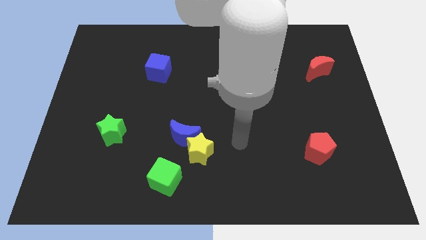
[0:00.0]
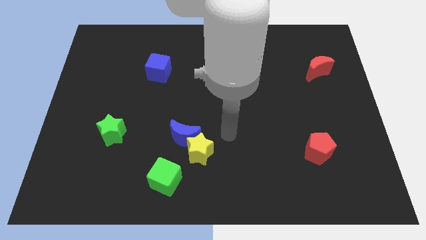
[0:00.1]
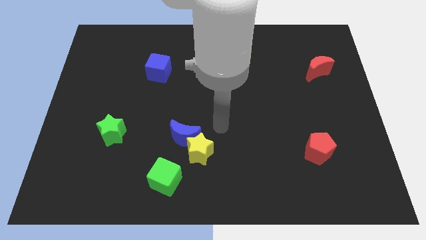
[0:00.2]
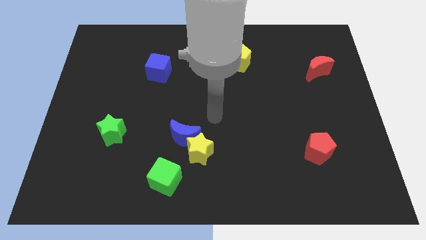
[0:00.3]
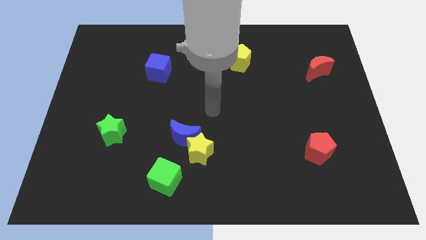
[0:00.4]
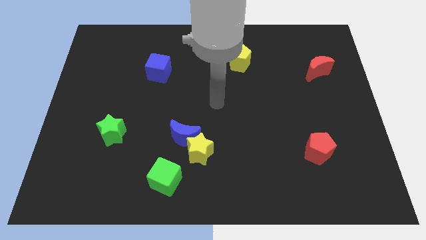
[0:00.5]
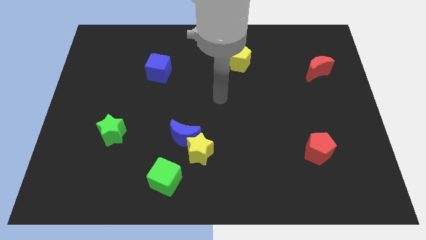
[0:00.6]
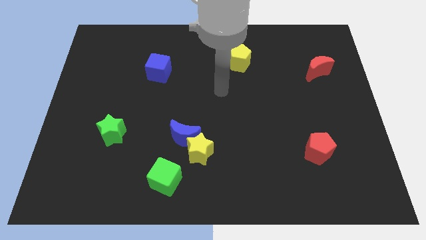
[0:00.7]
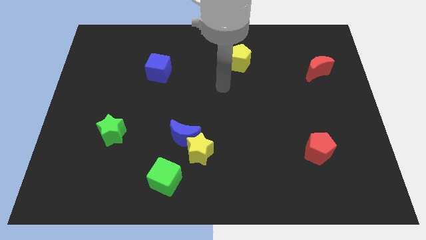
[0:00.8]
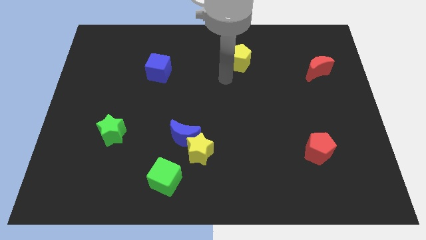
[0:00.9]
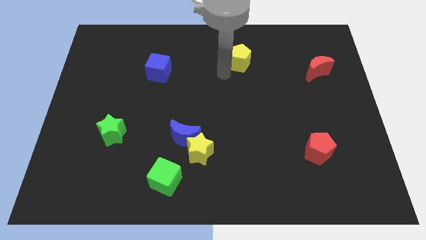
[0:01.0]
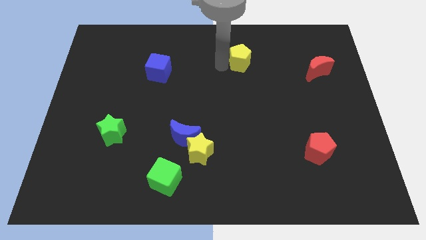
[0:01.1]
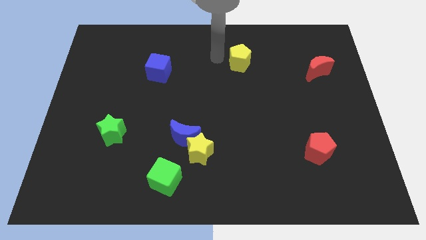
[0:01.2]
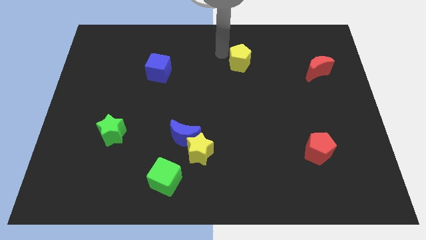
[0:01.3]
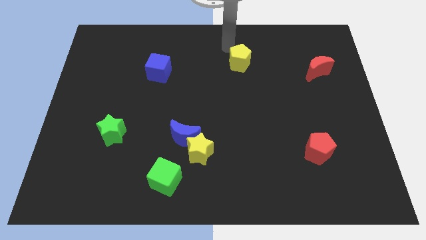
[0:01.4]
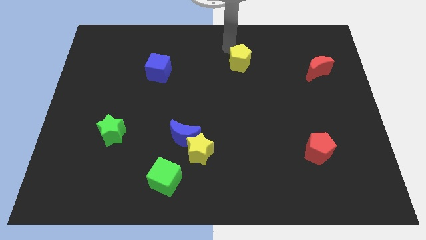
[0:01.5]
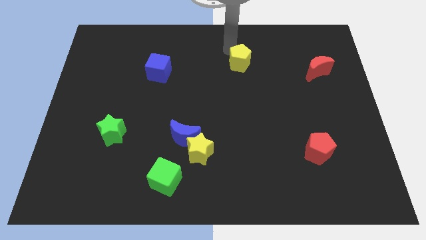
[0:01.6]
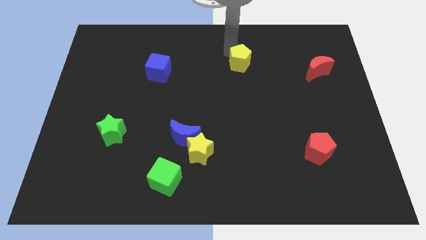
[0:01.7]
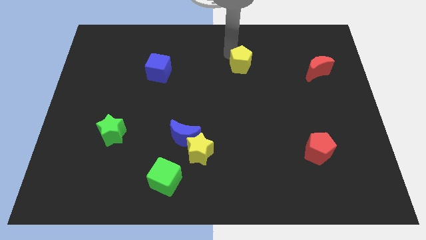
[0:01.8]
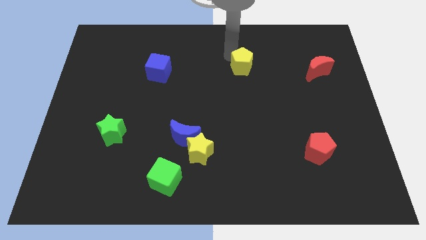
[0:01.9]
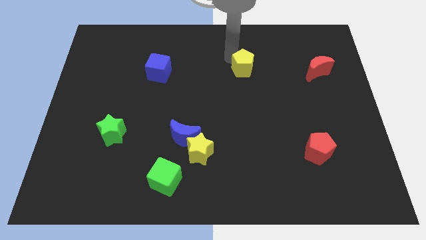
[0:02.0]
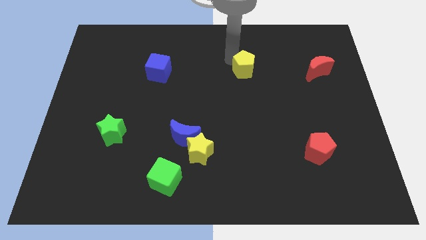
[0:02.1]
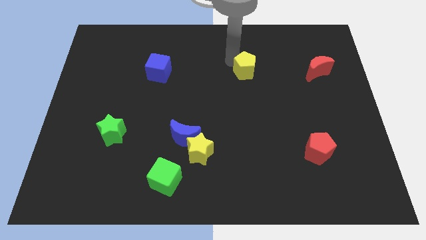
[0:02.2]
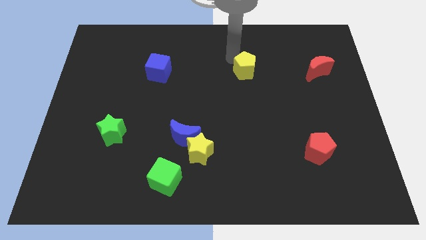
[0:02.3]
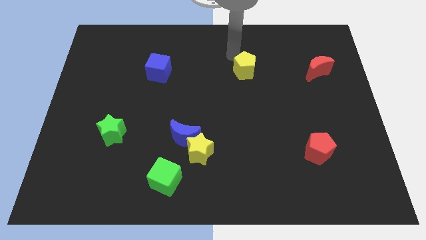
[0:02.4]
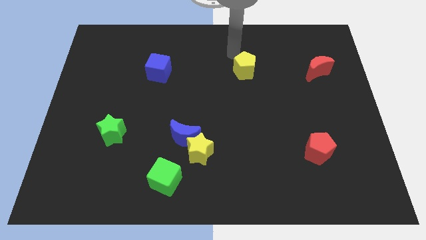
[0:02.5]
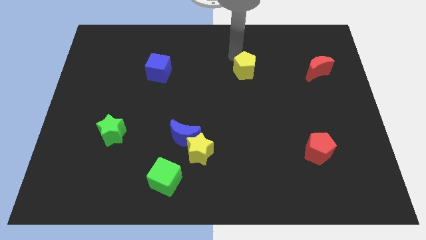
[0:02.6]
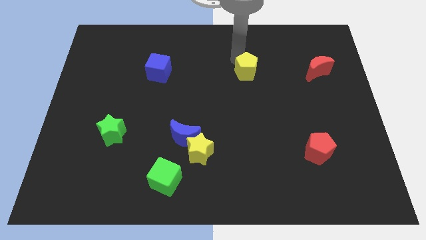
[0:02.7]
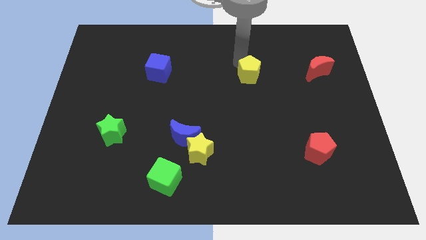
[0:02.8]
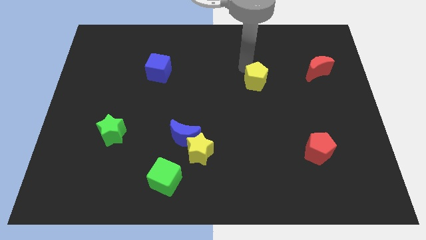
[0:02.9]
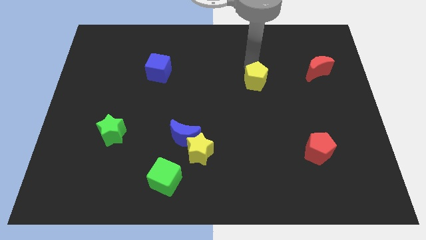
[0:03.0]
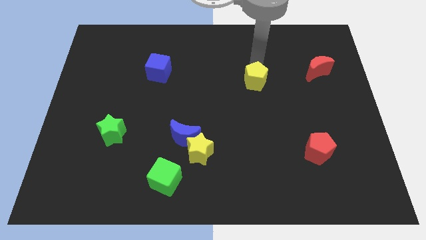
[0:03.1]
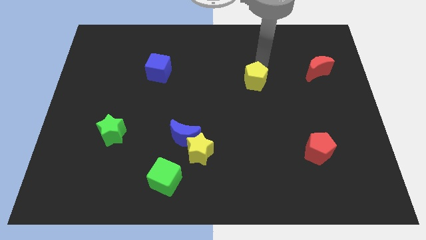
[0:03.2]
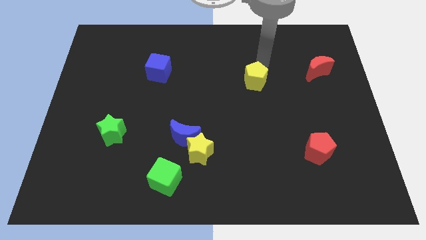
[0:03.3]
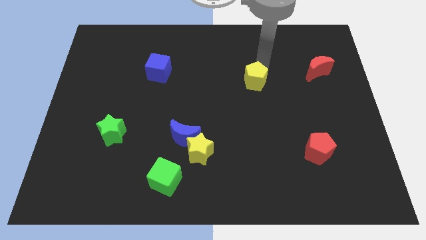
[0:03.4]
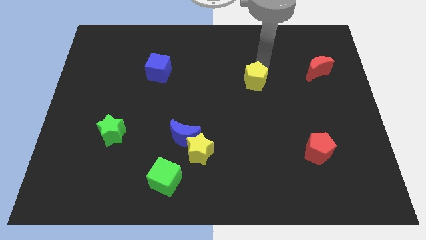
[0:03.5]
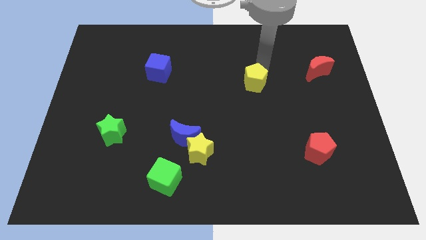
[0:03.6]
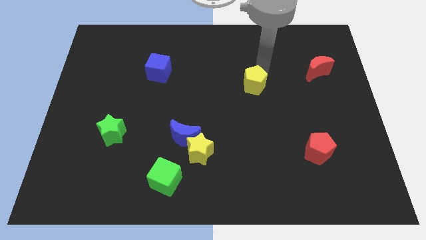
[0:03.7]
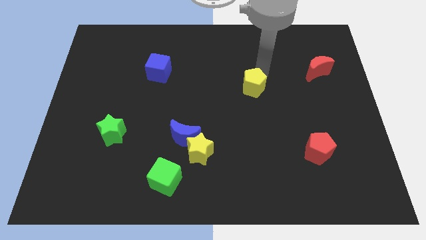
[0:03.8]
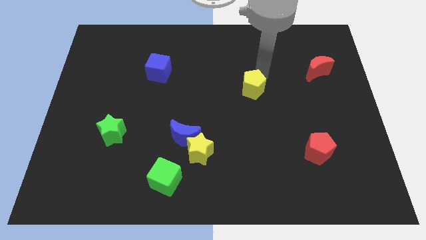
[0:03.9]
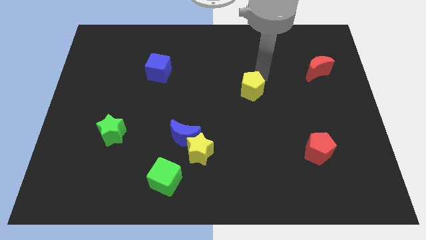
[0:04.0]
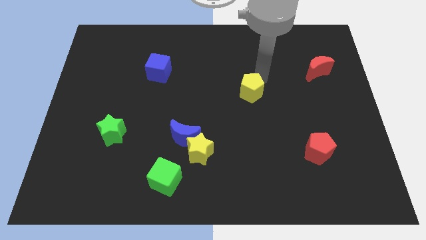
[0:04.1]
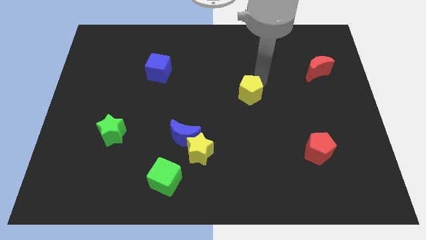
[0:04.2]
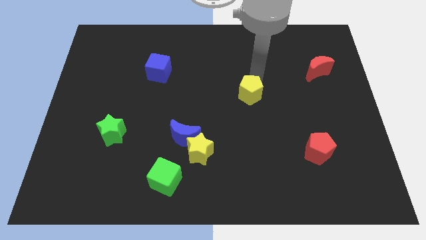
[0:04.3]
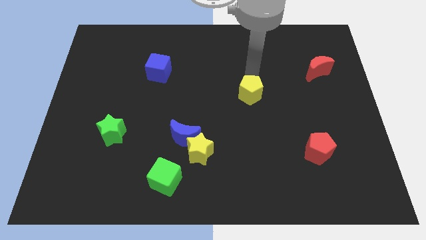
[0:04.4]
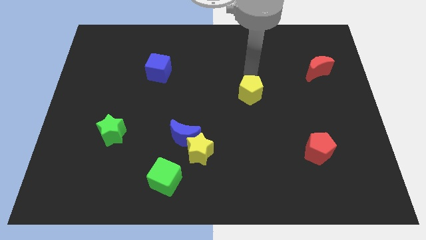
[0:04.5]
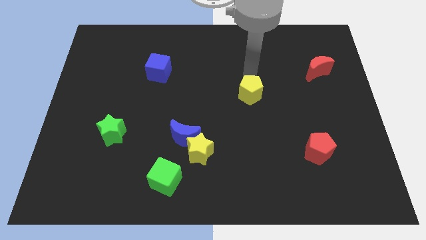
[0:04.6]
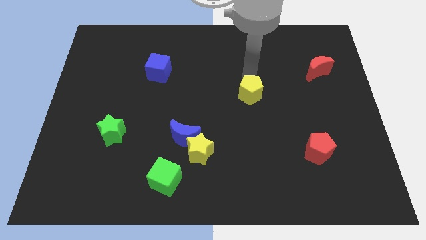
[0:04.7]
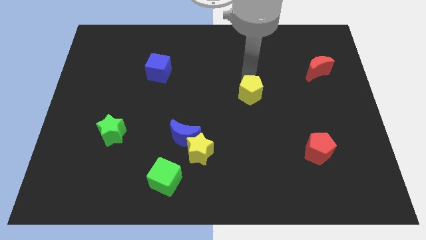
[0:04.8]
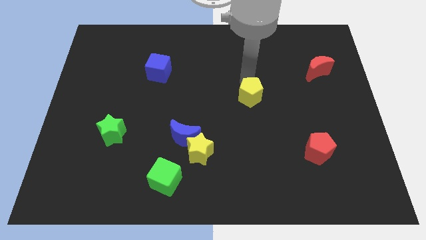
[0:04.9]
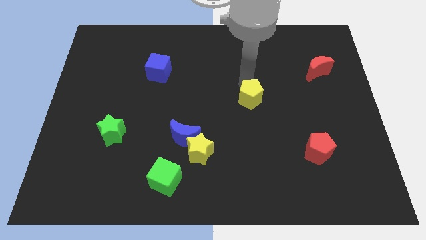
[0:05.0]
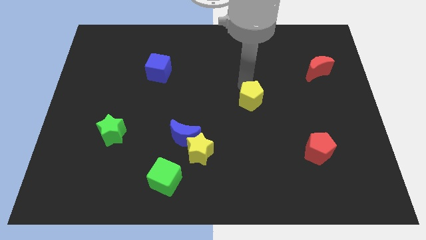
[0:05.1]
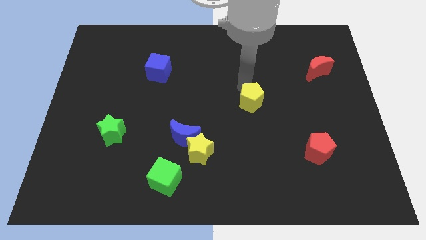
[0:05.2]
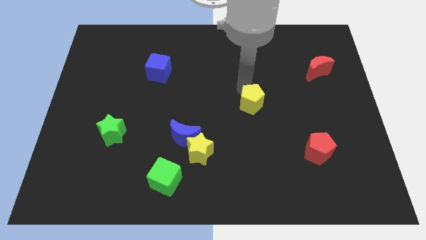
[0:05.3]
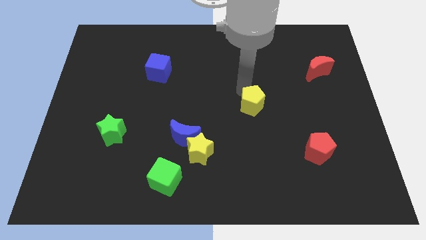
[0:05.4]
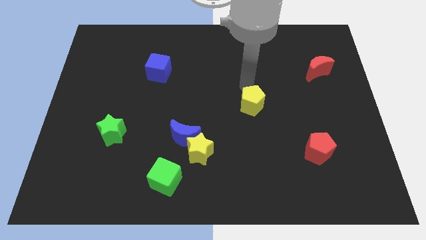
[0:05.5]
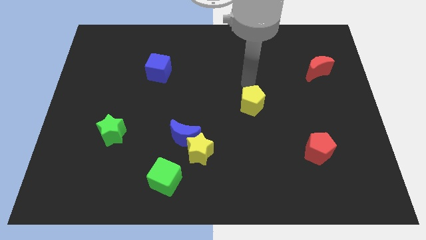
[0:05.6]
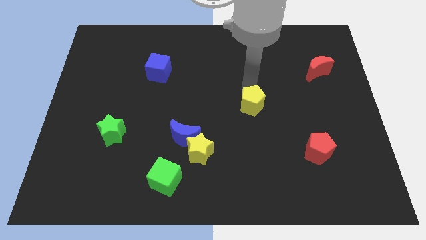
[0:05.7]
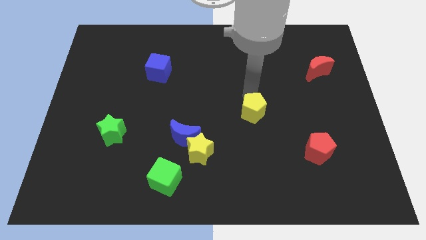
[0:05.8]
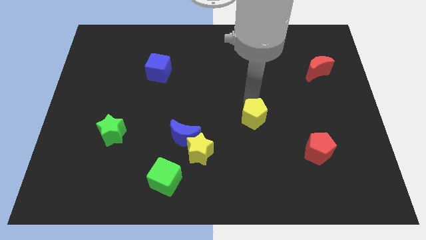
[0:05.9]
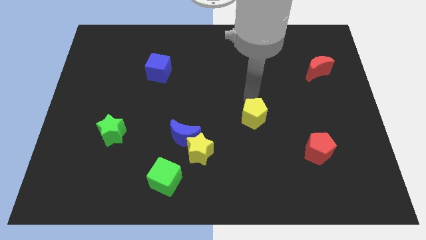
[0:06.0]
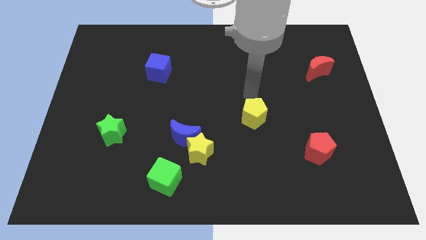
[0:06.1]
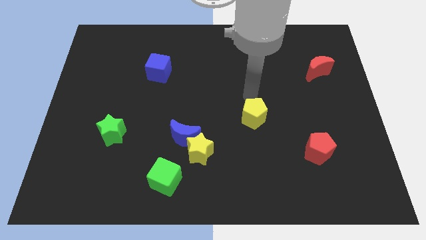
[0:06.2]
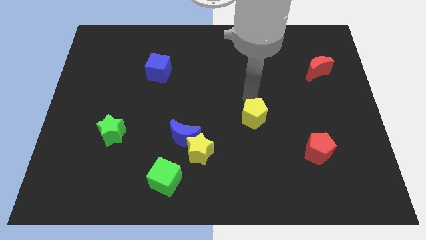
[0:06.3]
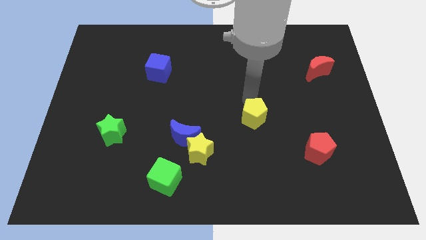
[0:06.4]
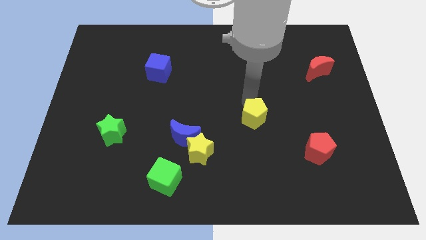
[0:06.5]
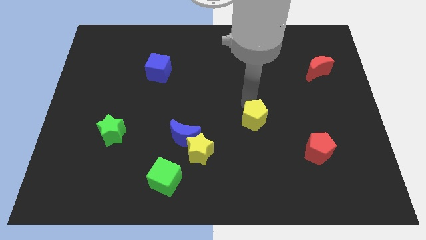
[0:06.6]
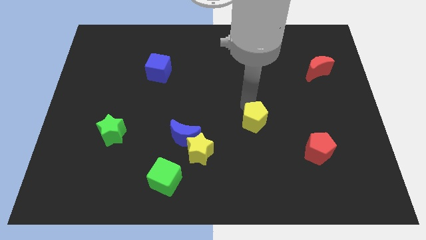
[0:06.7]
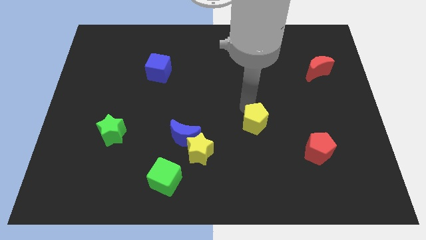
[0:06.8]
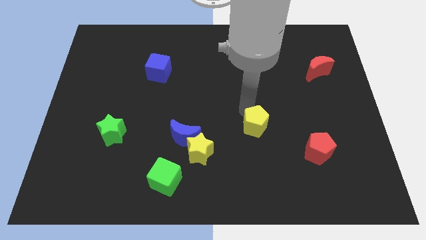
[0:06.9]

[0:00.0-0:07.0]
push the yellow pentagon down

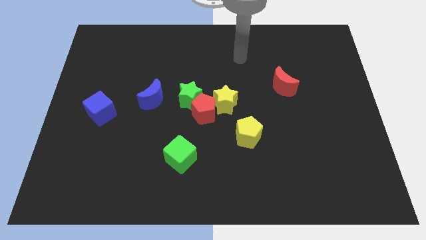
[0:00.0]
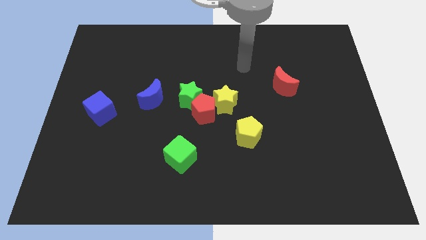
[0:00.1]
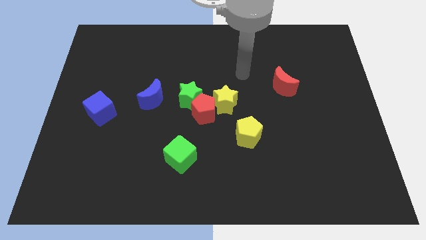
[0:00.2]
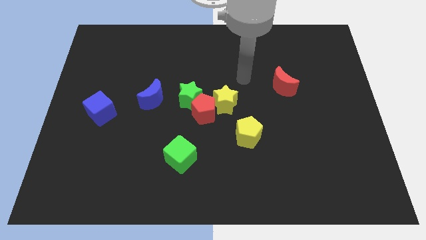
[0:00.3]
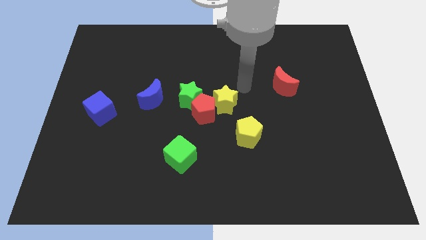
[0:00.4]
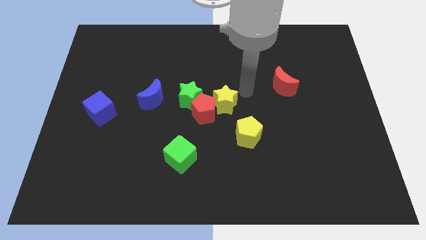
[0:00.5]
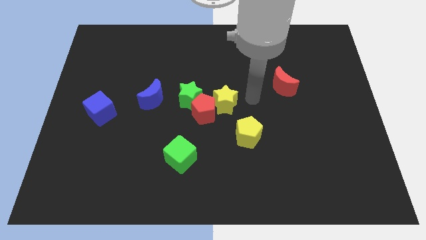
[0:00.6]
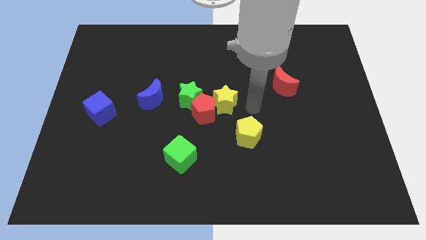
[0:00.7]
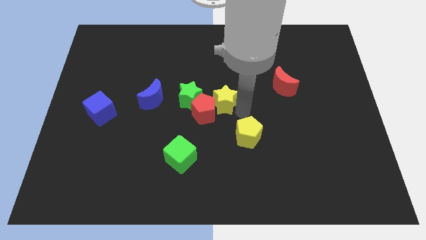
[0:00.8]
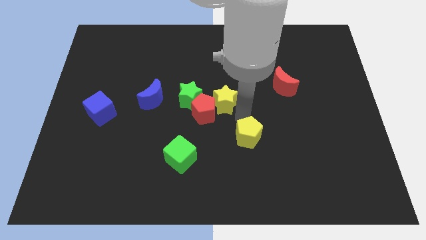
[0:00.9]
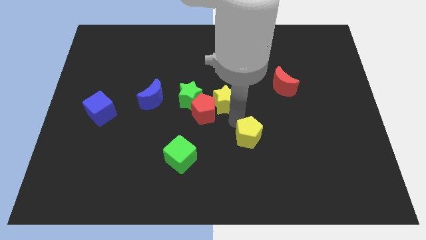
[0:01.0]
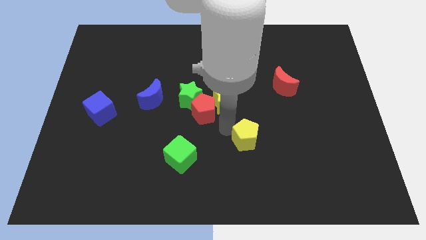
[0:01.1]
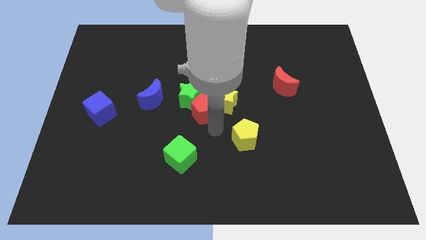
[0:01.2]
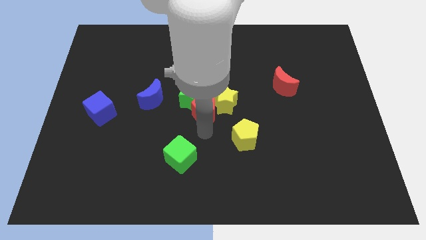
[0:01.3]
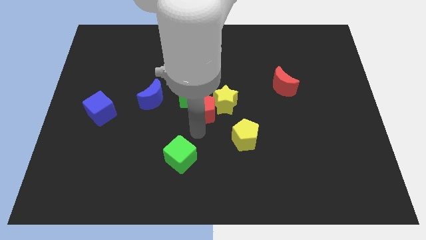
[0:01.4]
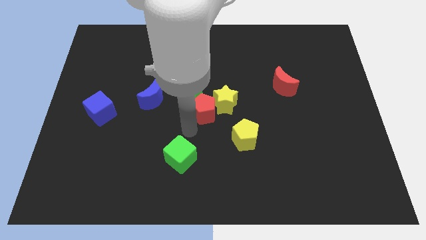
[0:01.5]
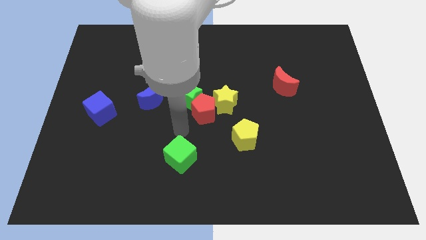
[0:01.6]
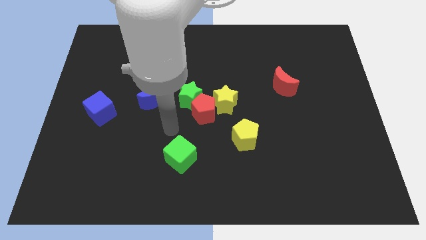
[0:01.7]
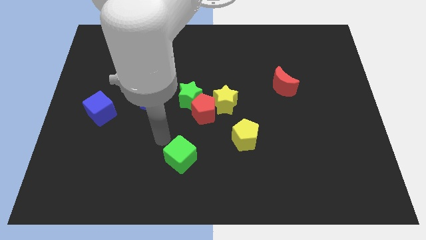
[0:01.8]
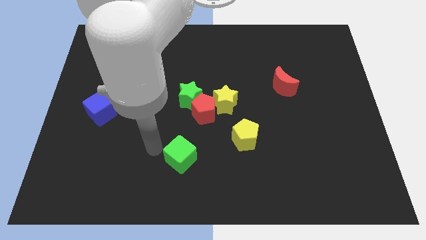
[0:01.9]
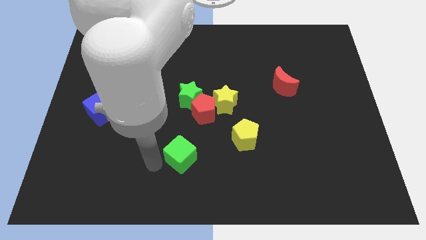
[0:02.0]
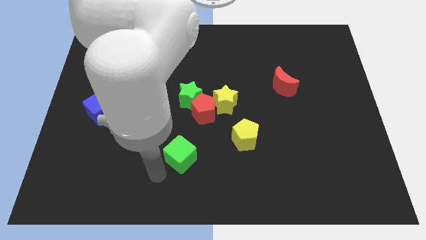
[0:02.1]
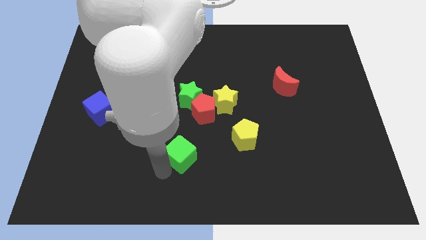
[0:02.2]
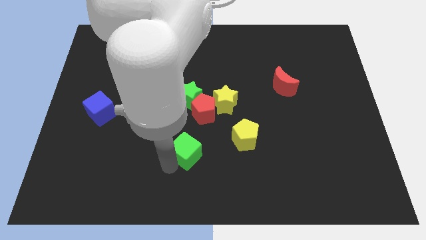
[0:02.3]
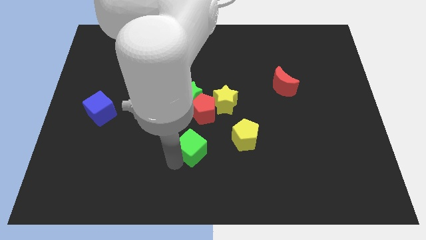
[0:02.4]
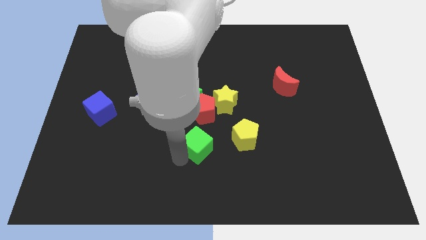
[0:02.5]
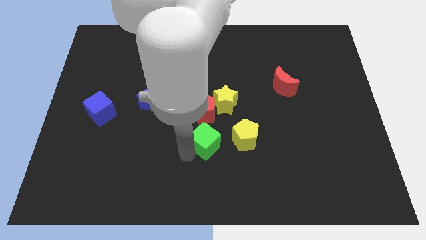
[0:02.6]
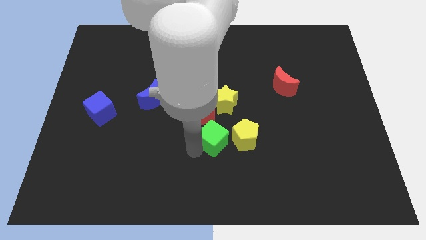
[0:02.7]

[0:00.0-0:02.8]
push the green cube upwards and right slightly
